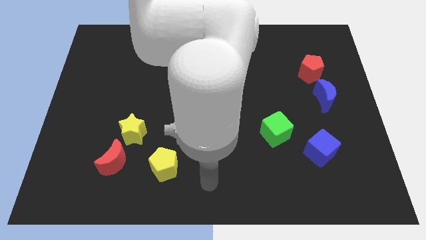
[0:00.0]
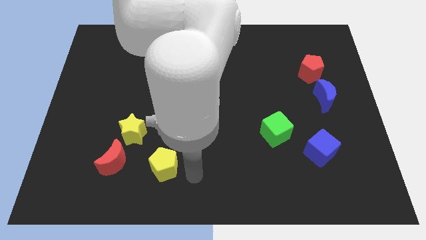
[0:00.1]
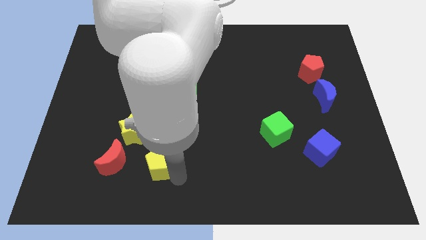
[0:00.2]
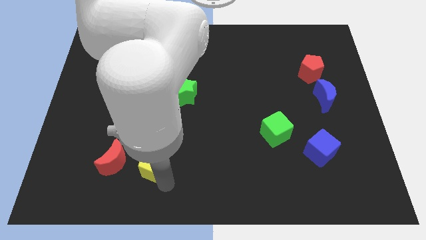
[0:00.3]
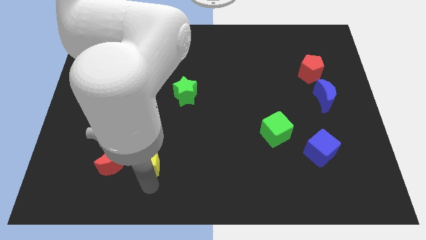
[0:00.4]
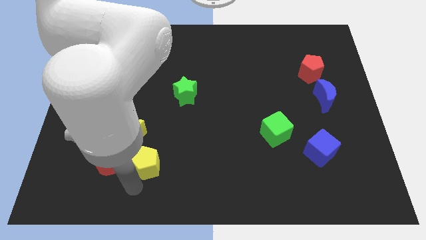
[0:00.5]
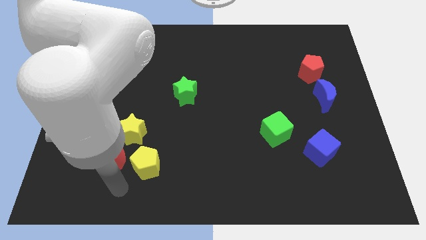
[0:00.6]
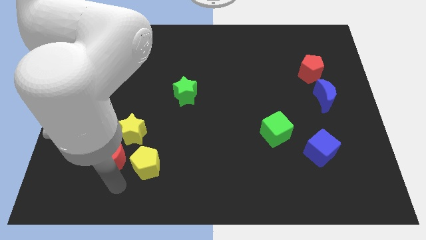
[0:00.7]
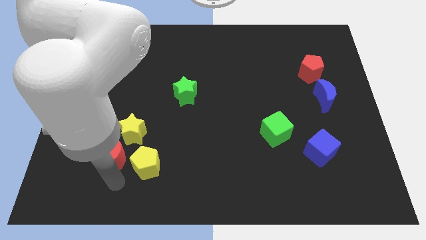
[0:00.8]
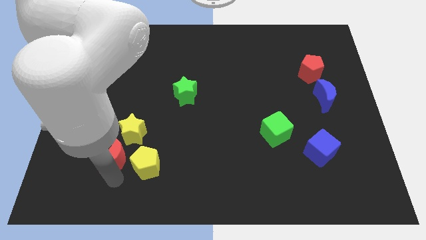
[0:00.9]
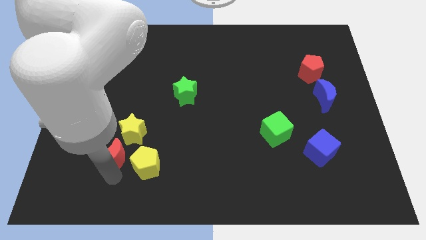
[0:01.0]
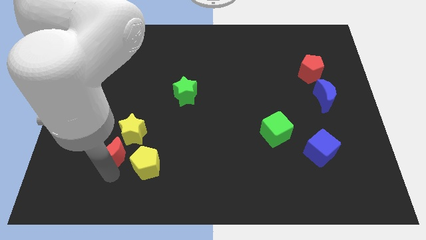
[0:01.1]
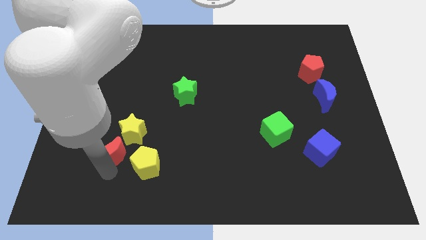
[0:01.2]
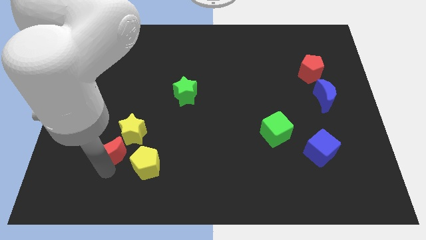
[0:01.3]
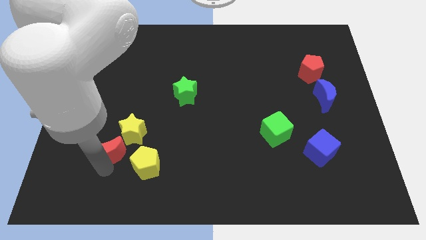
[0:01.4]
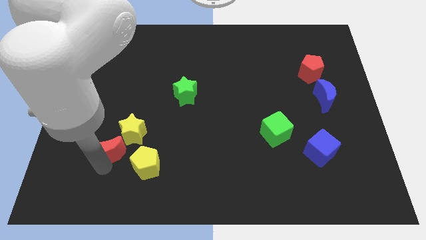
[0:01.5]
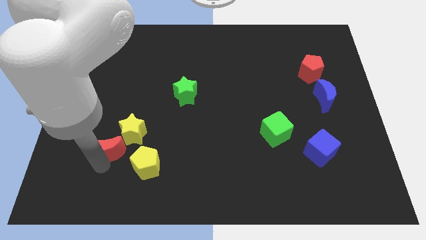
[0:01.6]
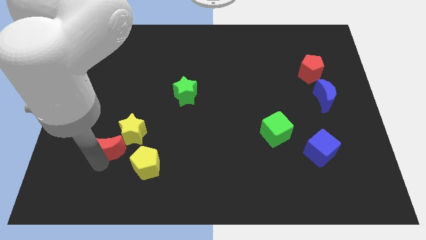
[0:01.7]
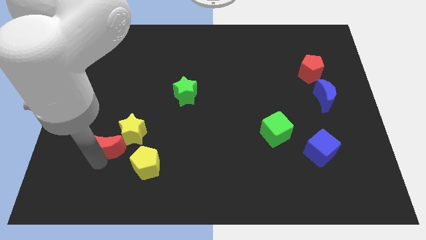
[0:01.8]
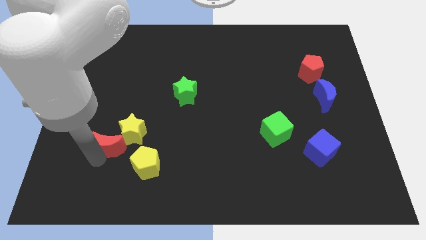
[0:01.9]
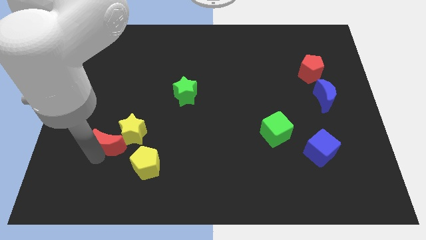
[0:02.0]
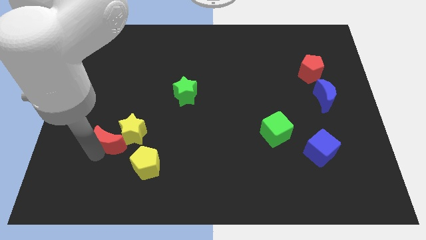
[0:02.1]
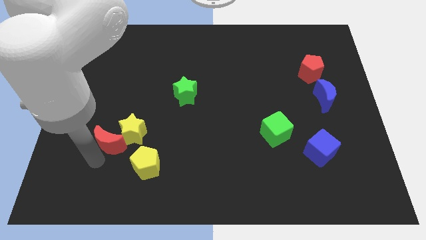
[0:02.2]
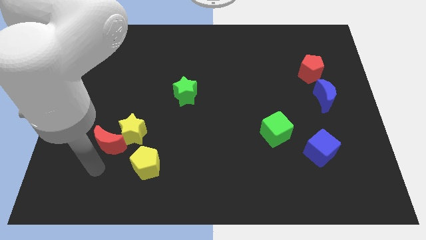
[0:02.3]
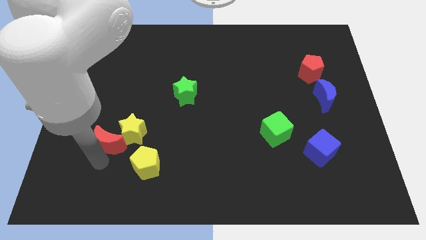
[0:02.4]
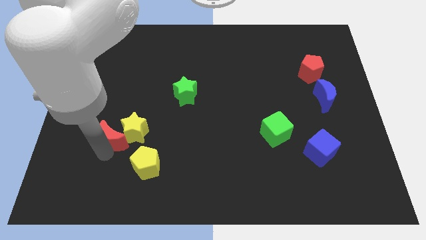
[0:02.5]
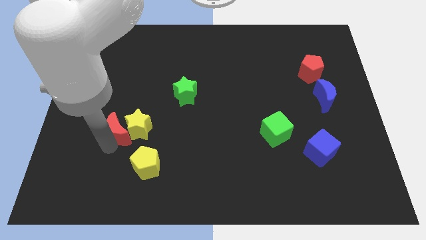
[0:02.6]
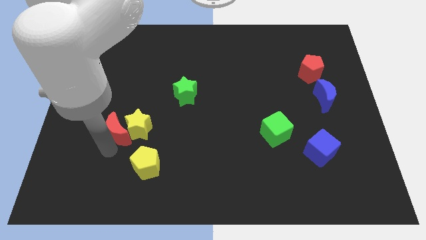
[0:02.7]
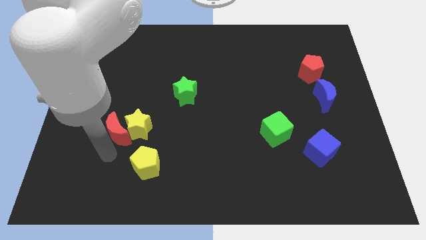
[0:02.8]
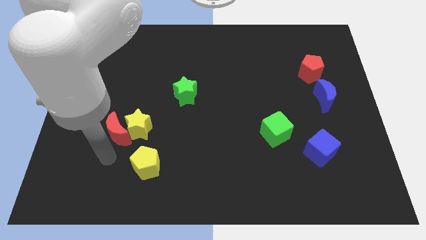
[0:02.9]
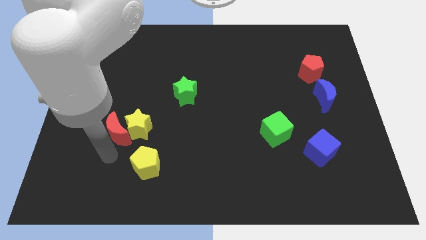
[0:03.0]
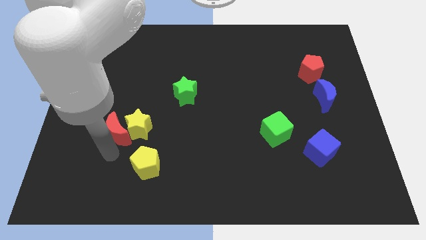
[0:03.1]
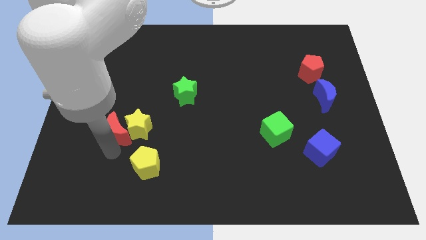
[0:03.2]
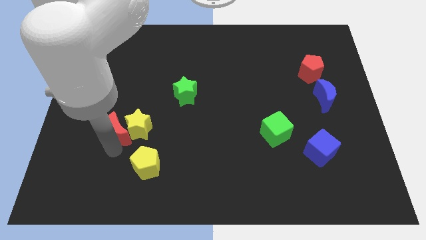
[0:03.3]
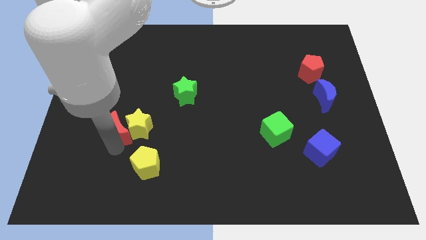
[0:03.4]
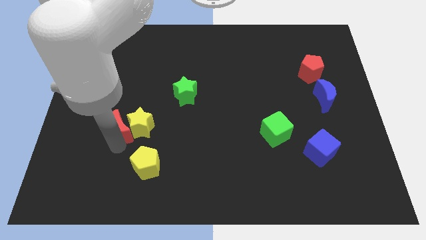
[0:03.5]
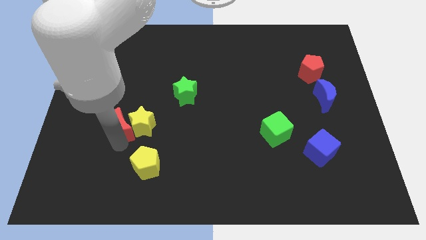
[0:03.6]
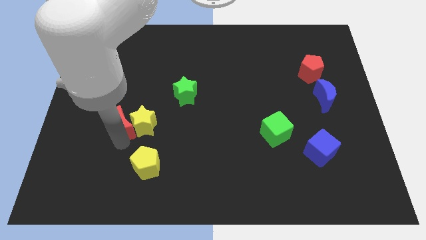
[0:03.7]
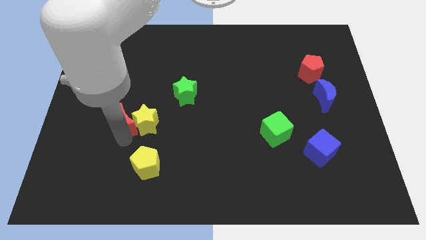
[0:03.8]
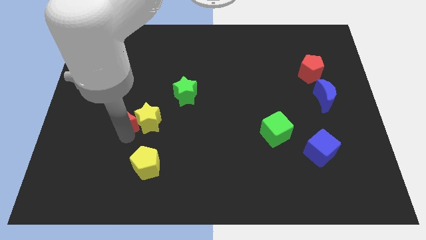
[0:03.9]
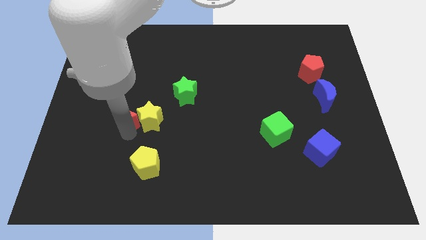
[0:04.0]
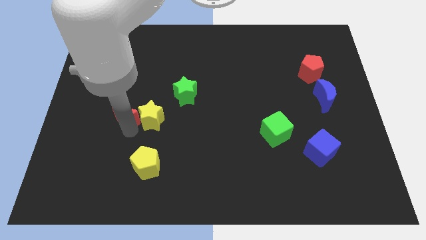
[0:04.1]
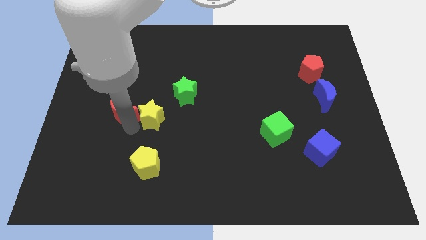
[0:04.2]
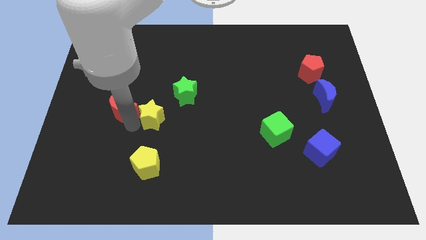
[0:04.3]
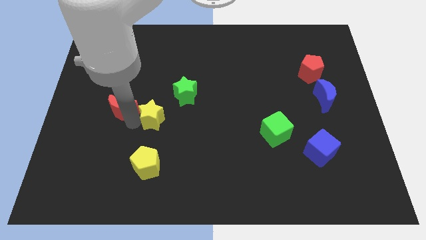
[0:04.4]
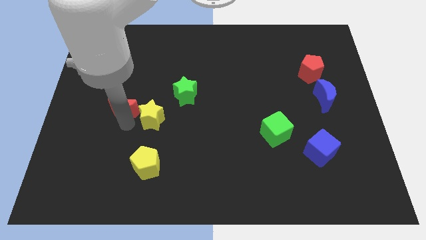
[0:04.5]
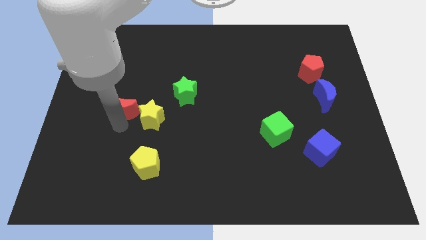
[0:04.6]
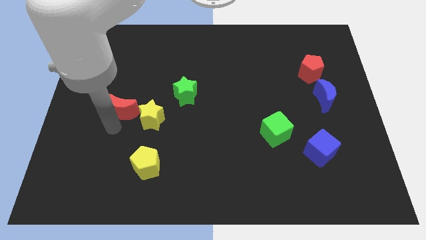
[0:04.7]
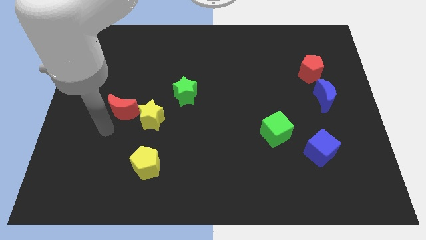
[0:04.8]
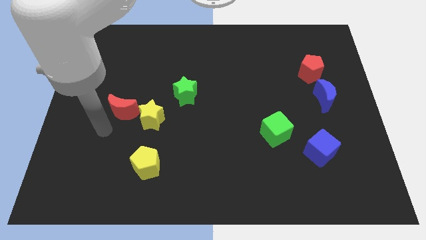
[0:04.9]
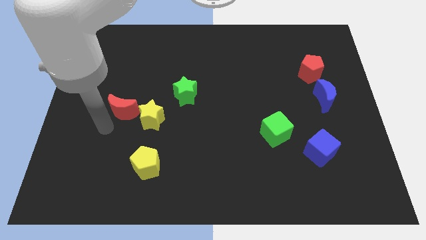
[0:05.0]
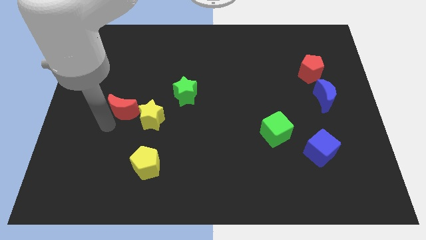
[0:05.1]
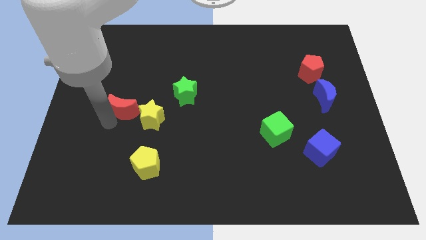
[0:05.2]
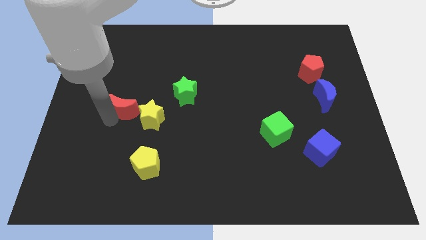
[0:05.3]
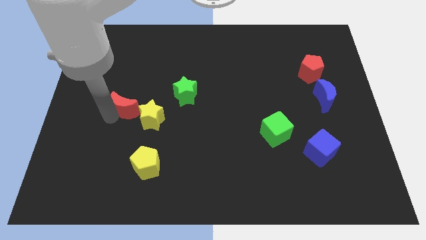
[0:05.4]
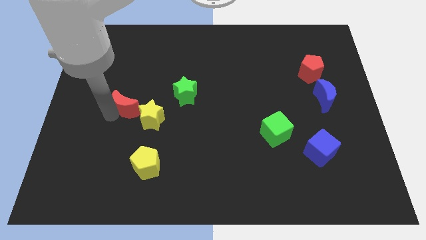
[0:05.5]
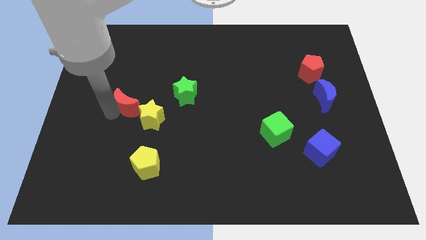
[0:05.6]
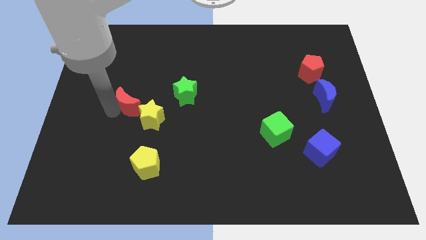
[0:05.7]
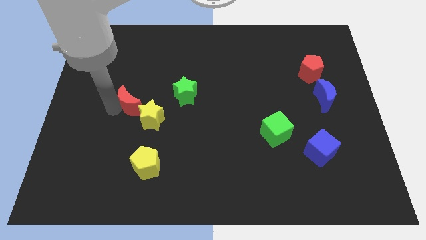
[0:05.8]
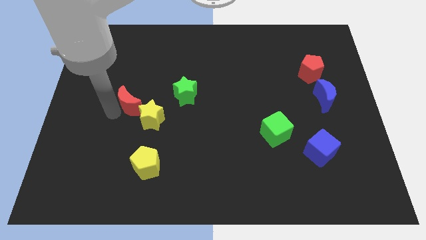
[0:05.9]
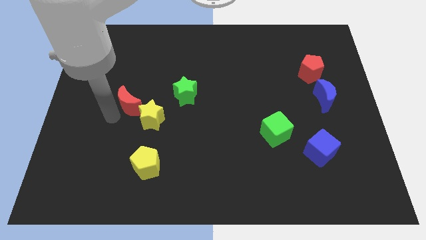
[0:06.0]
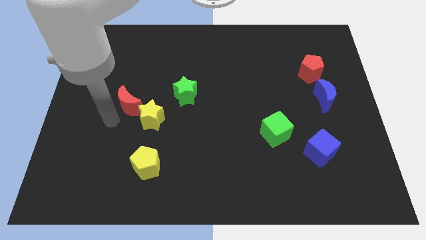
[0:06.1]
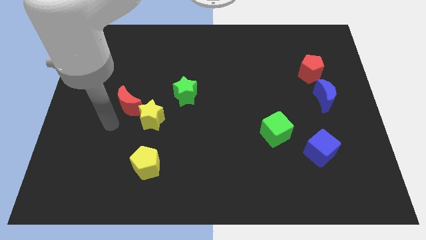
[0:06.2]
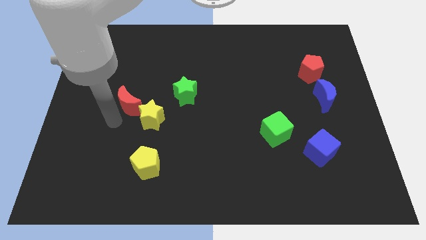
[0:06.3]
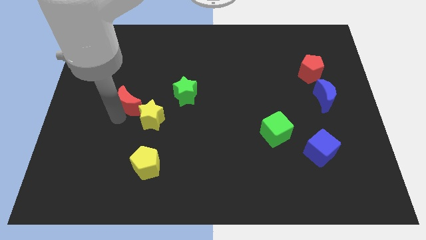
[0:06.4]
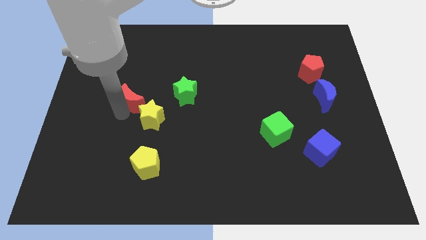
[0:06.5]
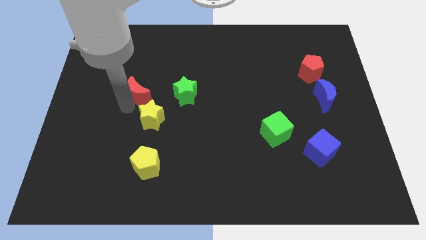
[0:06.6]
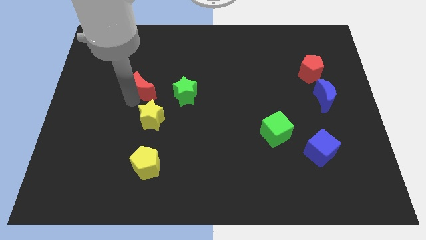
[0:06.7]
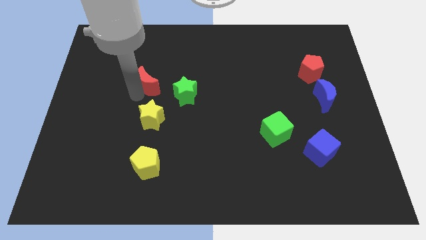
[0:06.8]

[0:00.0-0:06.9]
move the red moon to the top left of the green star
